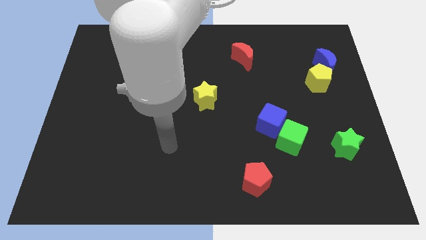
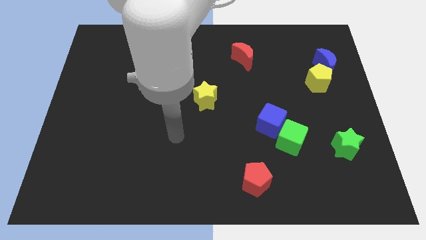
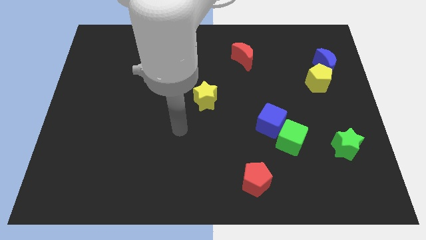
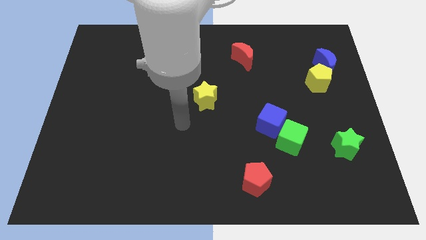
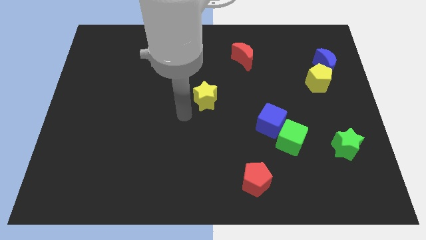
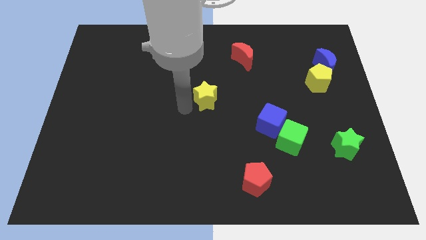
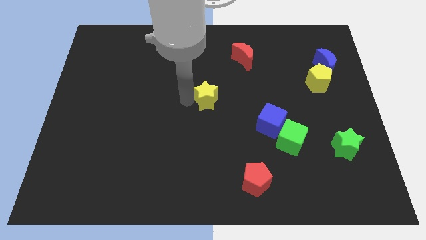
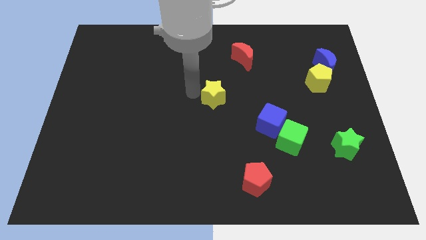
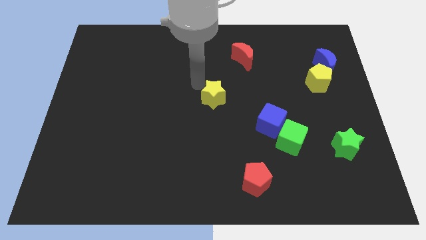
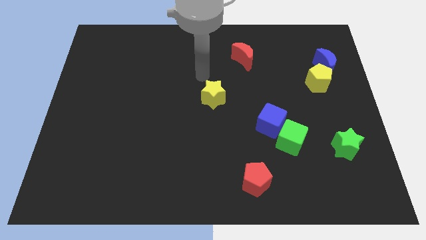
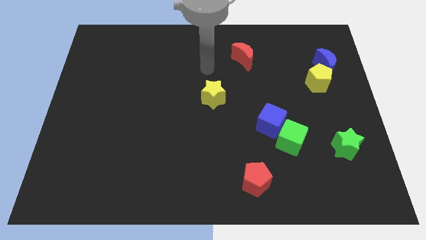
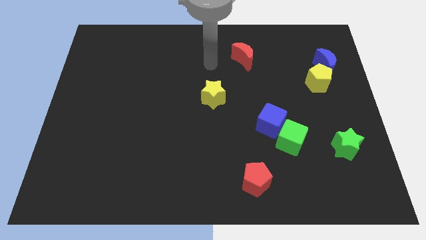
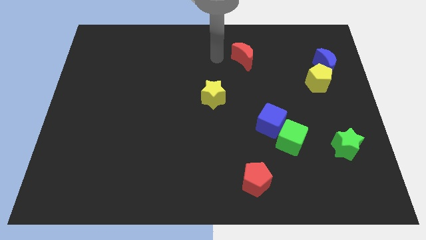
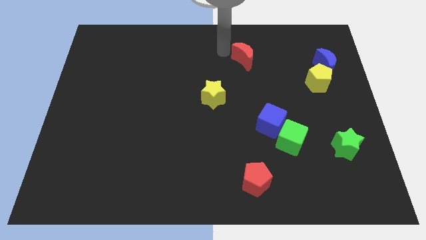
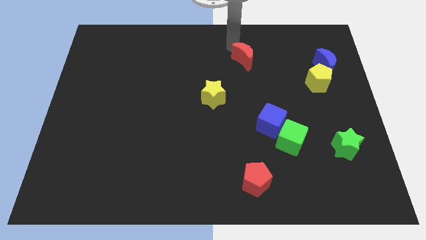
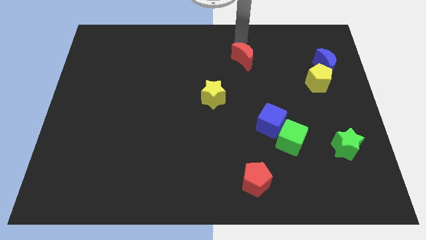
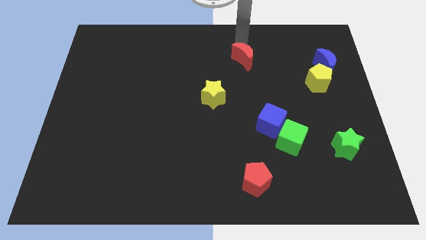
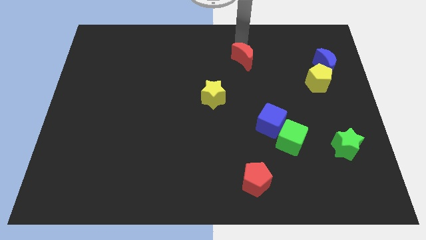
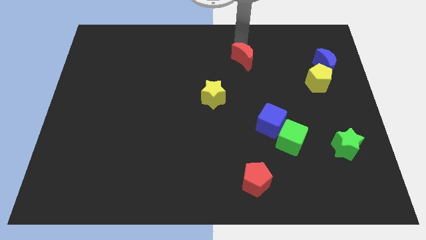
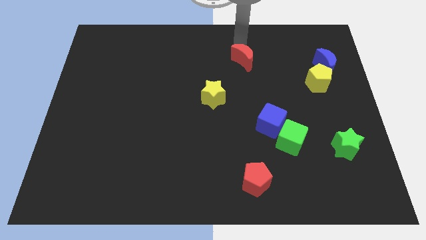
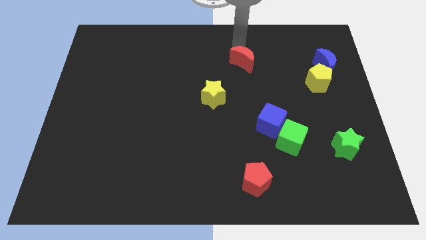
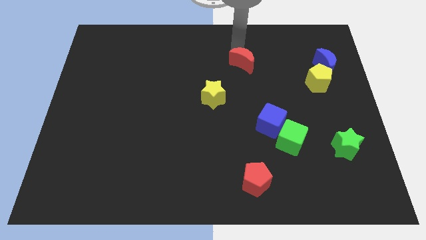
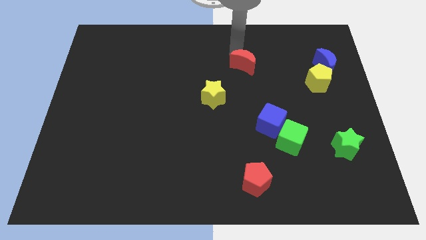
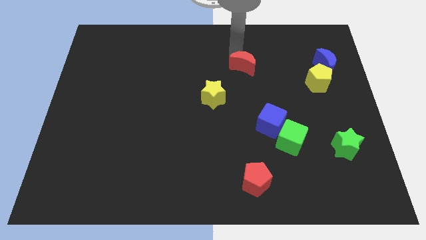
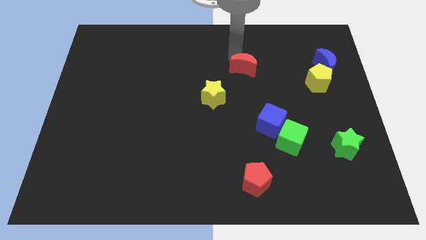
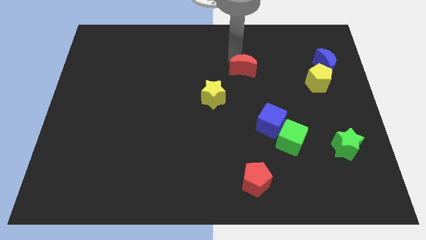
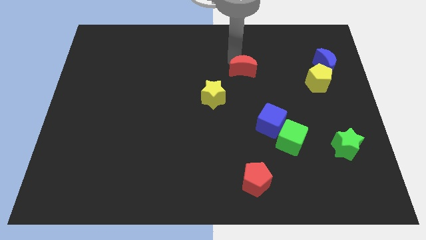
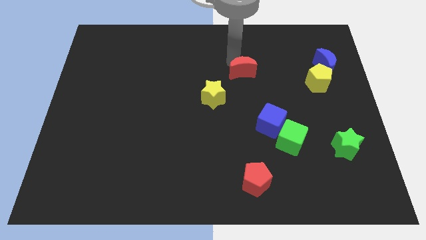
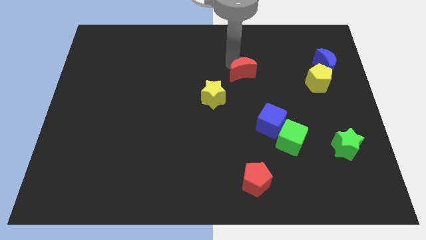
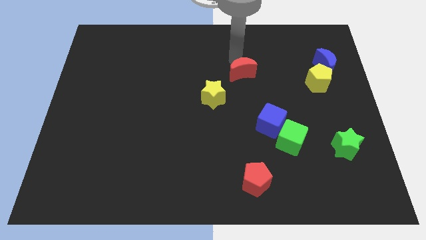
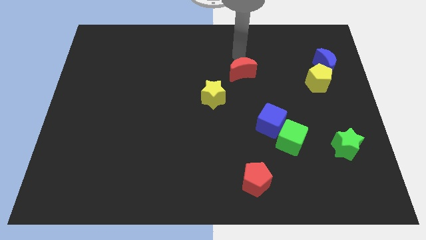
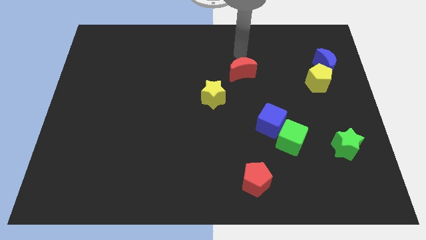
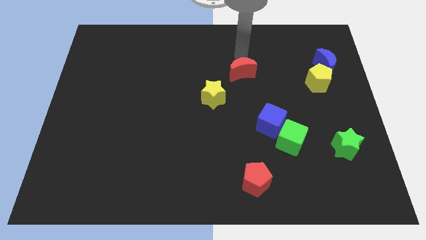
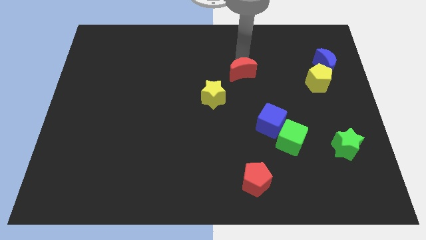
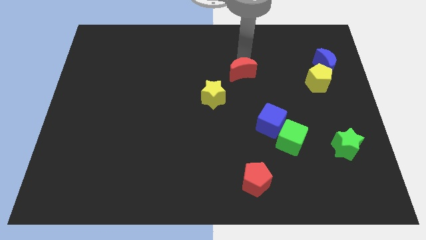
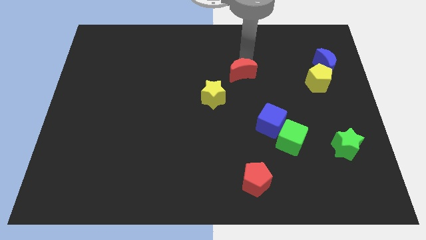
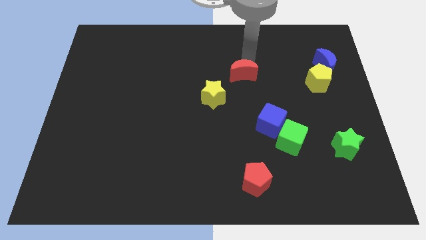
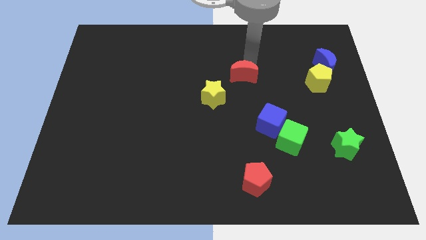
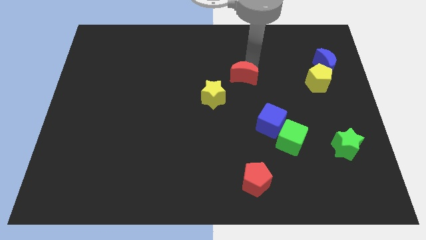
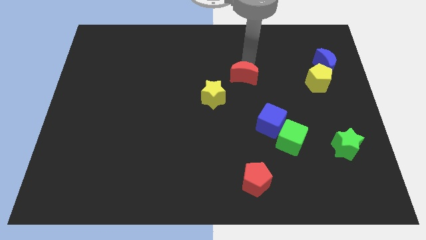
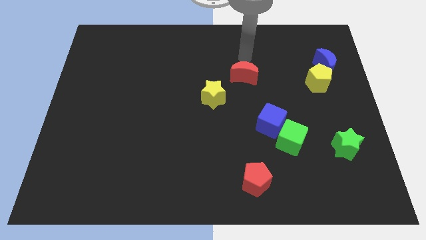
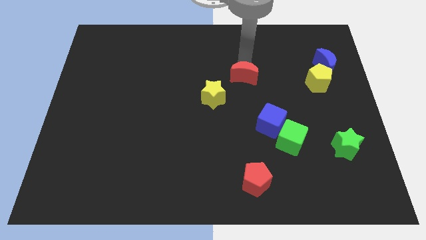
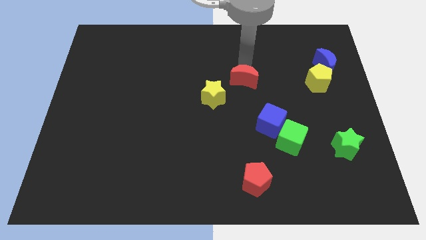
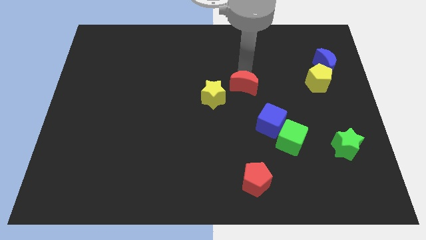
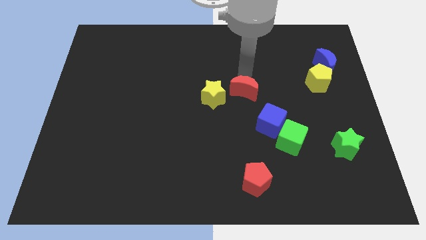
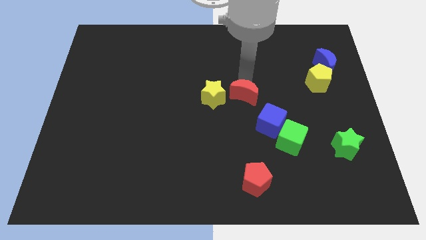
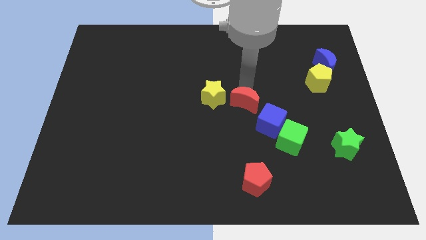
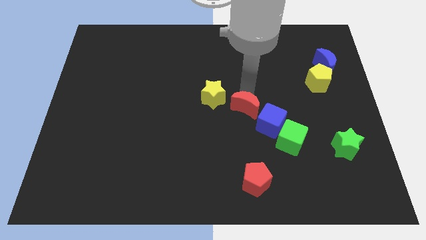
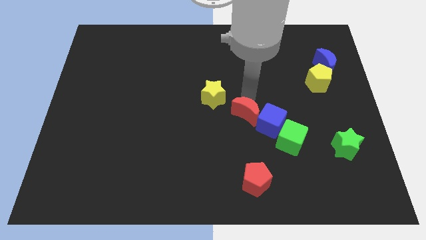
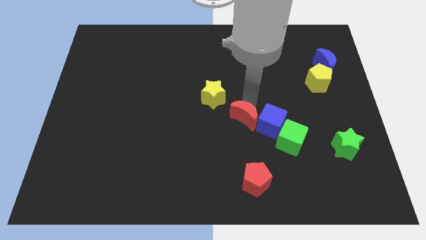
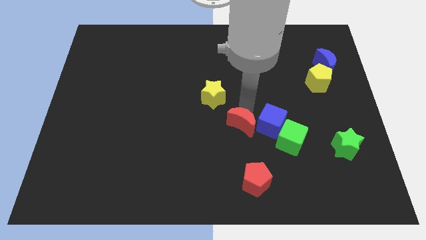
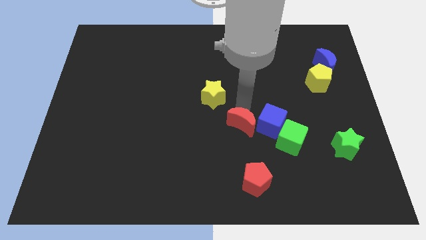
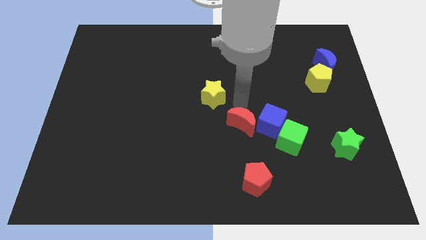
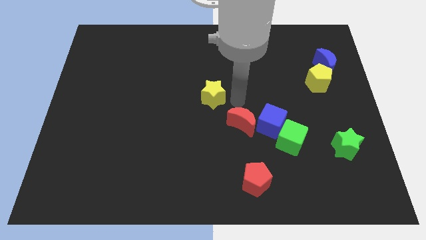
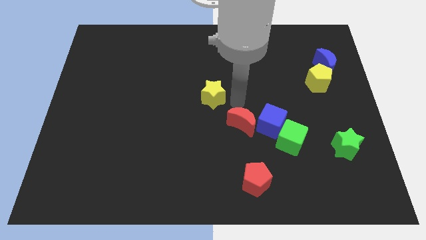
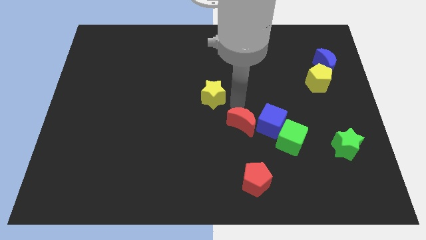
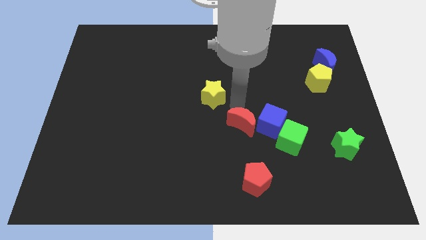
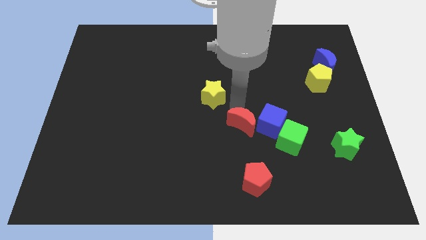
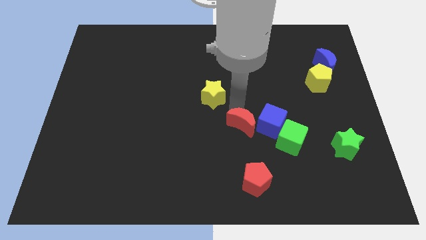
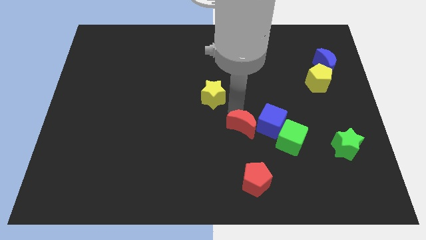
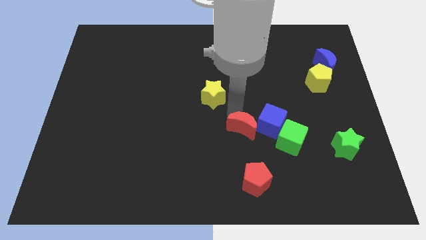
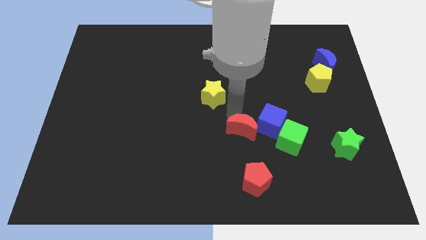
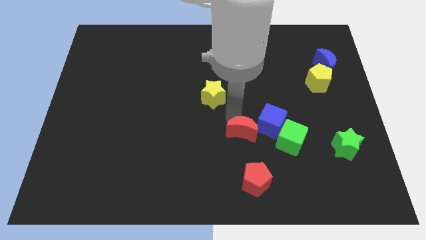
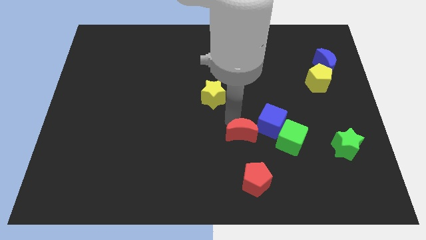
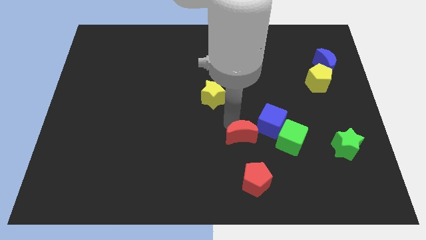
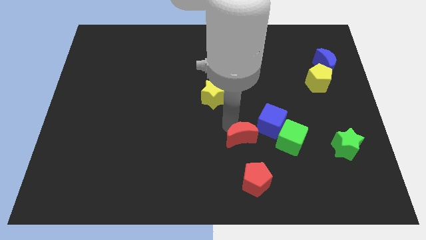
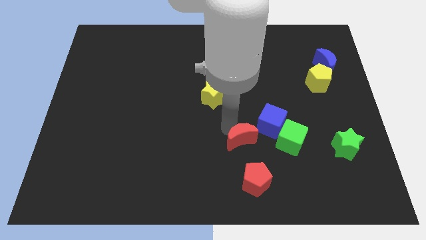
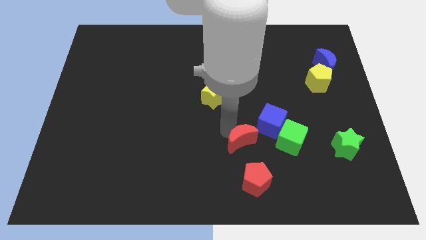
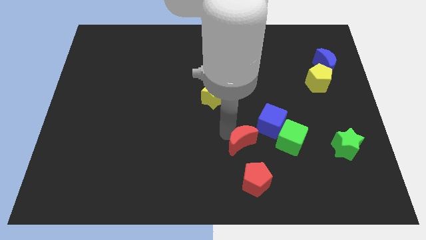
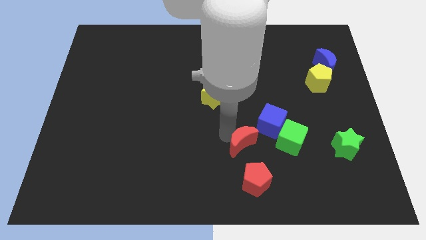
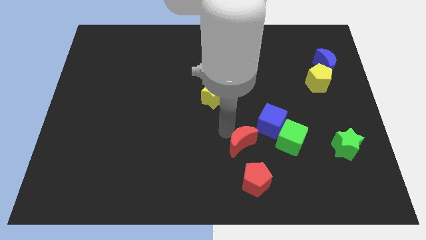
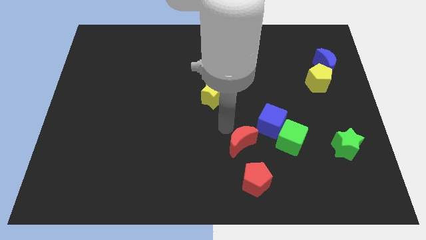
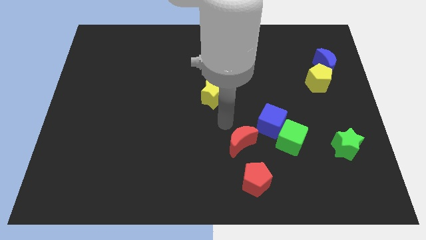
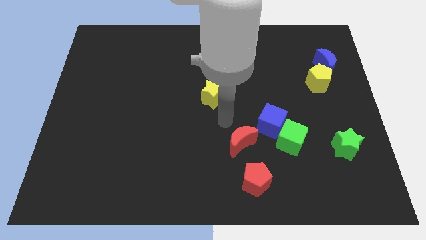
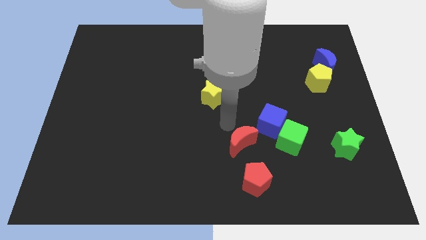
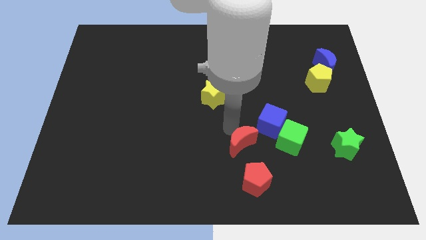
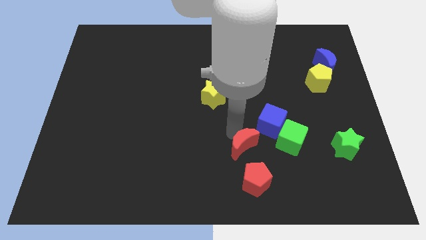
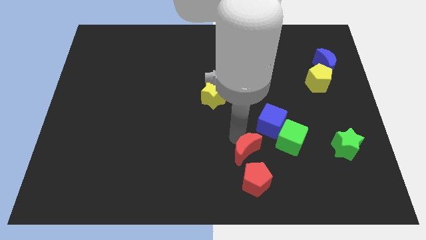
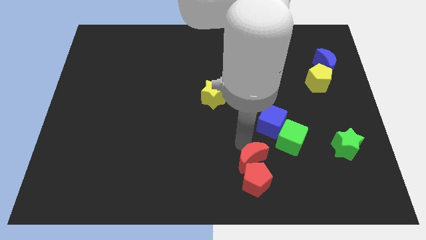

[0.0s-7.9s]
push the red moon next to the red pentagon

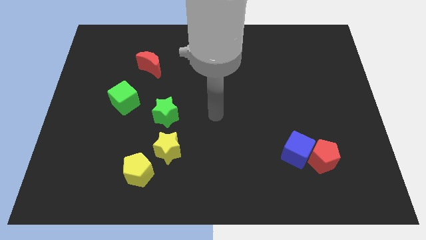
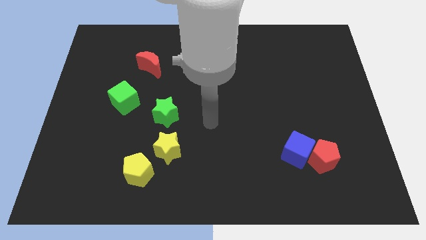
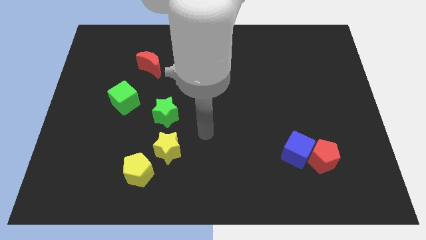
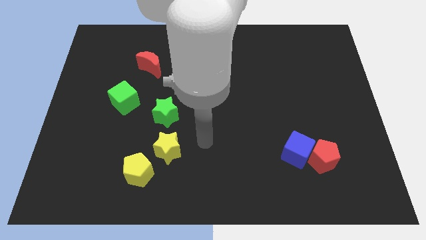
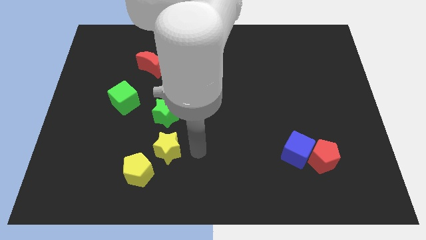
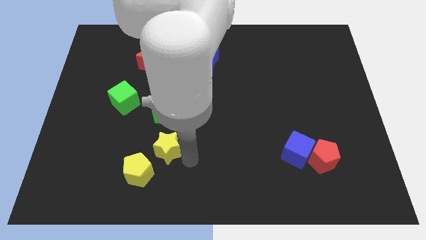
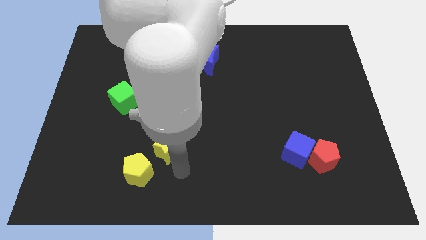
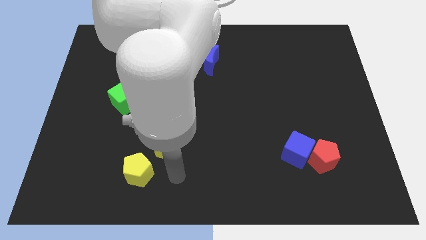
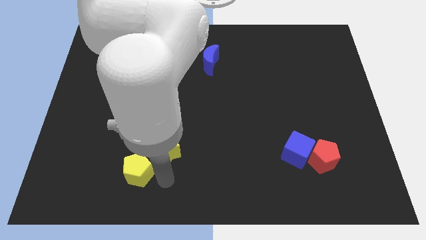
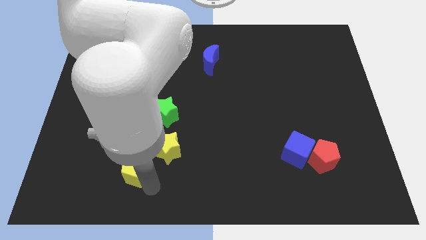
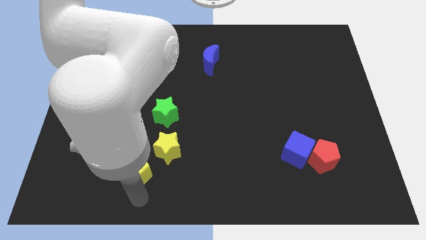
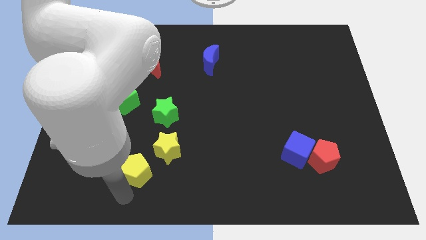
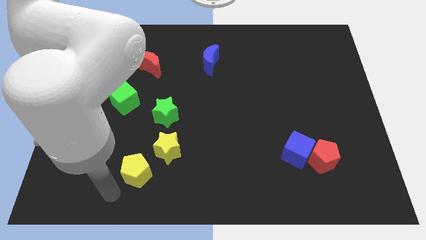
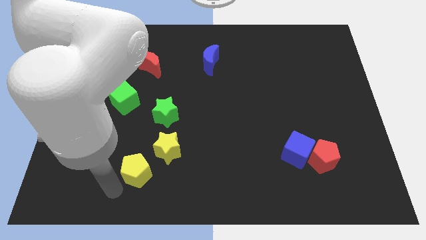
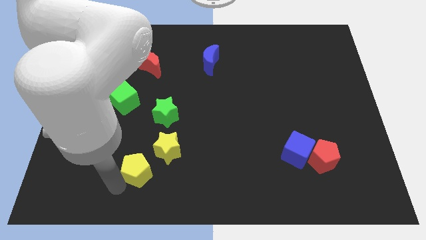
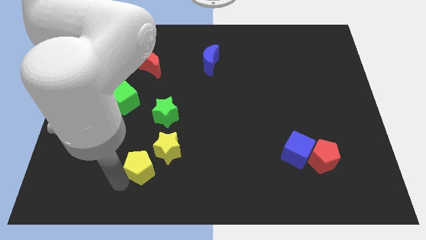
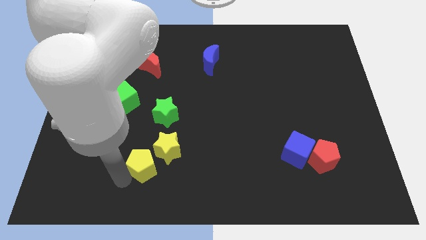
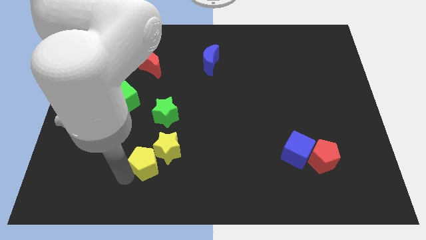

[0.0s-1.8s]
push the yellow pentagon next to the yellow star
